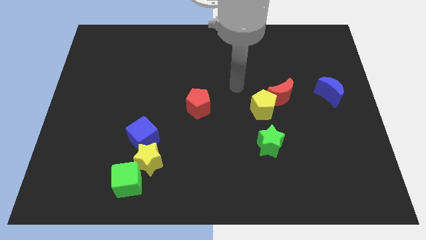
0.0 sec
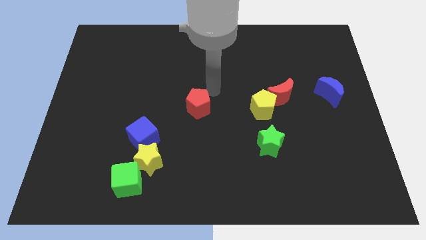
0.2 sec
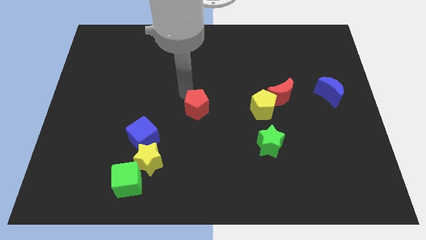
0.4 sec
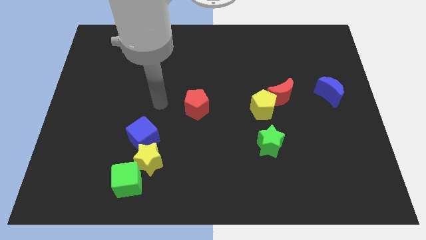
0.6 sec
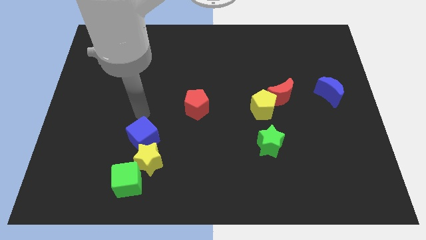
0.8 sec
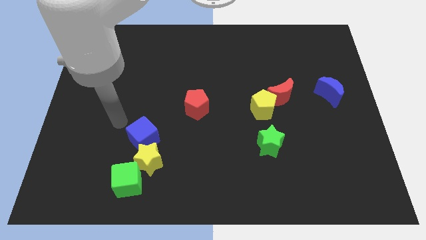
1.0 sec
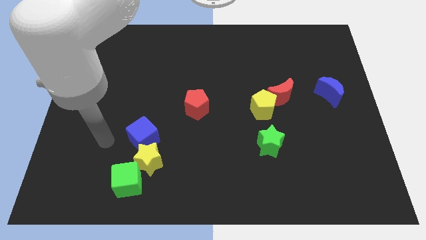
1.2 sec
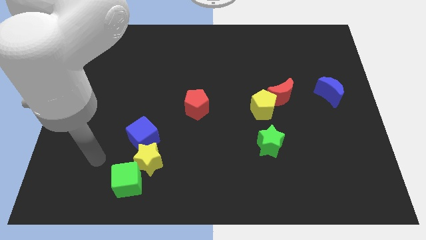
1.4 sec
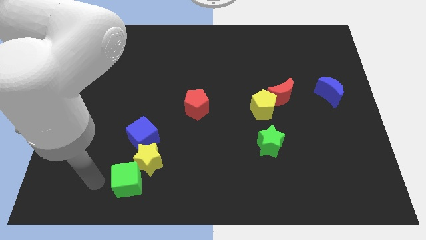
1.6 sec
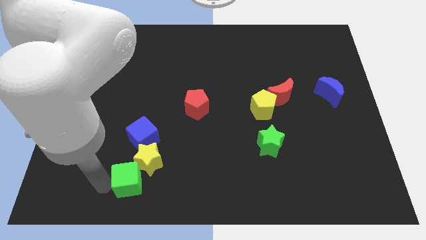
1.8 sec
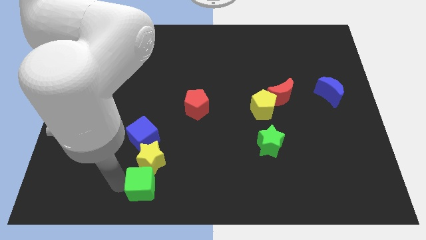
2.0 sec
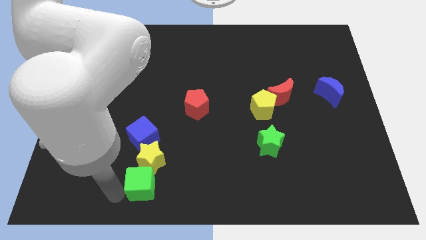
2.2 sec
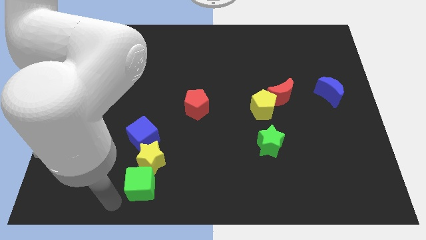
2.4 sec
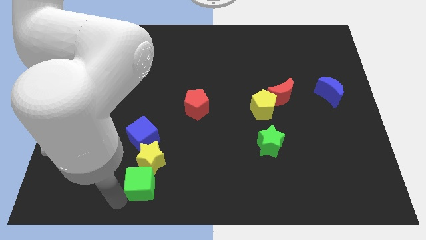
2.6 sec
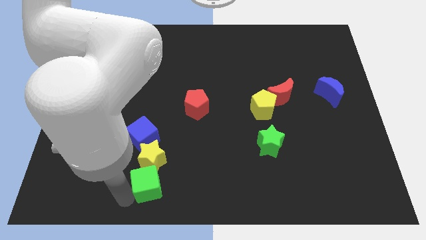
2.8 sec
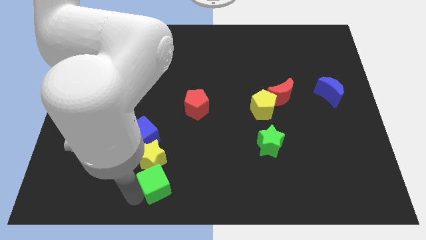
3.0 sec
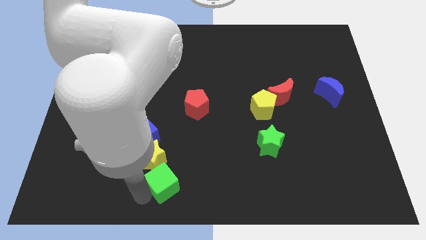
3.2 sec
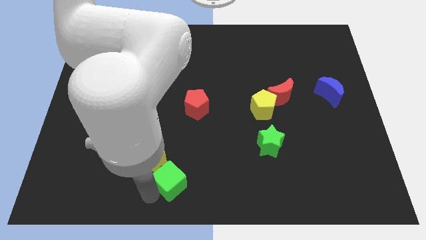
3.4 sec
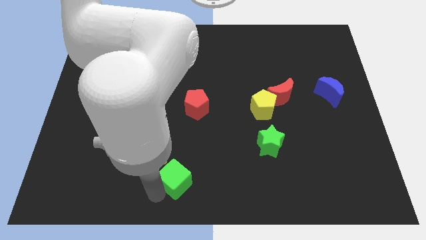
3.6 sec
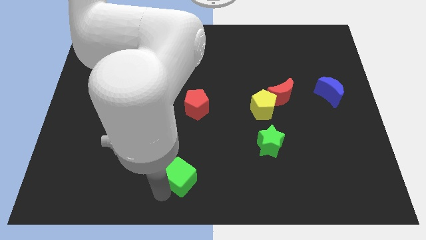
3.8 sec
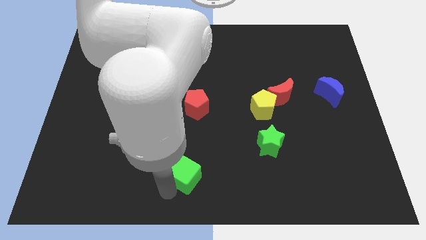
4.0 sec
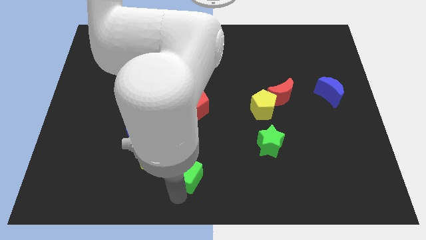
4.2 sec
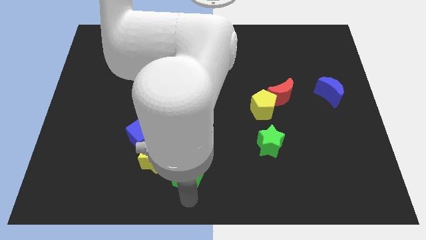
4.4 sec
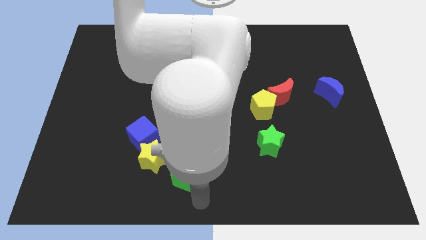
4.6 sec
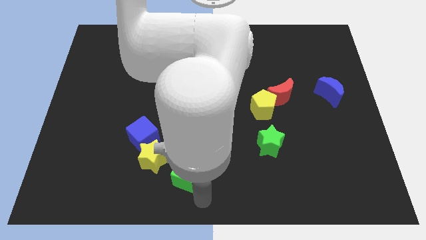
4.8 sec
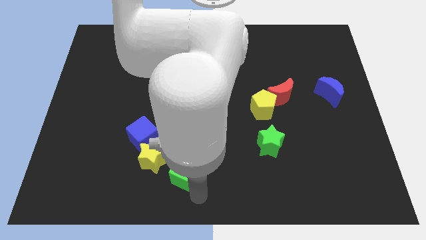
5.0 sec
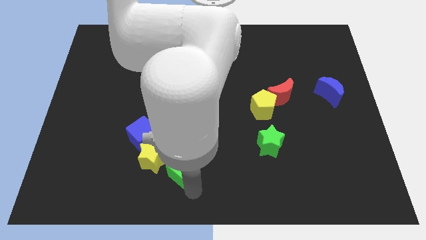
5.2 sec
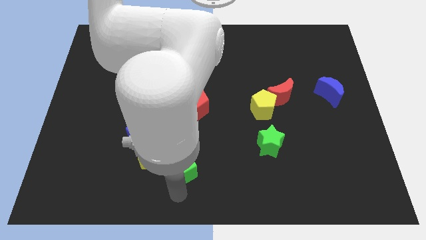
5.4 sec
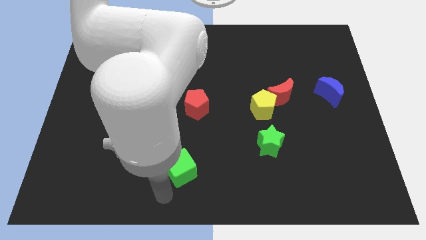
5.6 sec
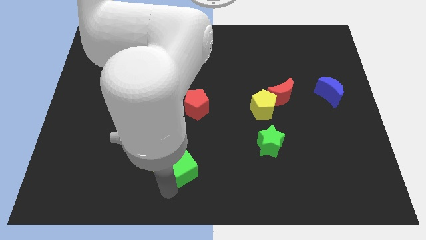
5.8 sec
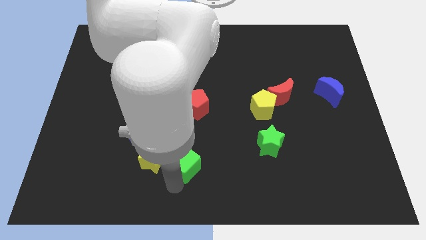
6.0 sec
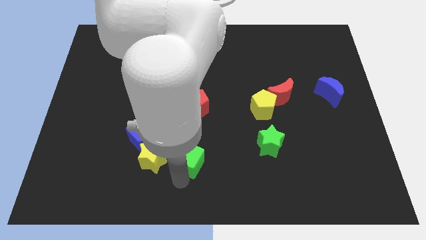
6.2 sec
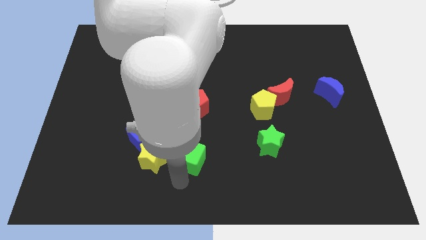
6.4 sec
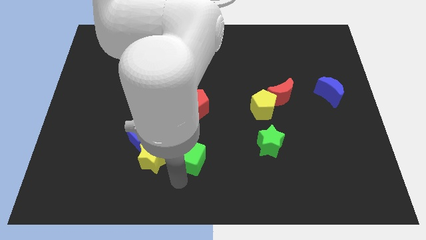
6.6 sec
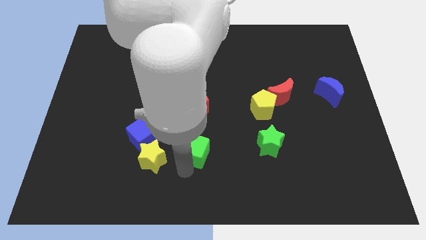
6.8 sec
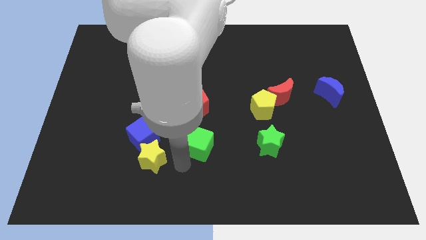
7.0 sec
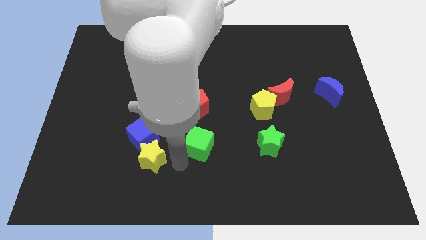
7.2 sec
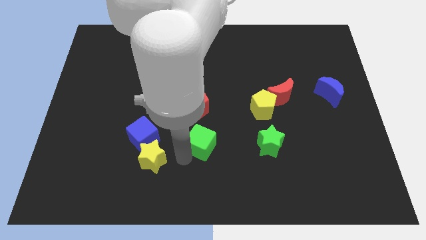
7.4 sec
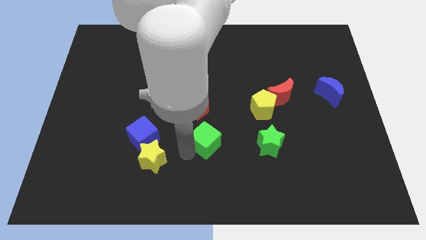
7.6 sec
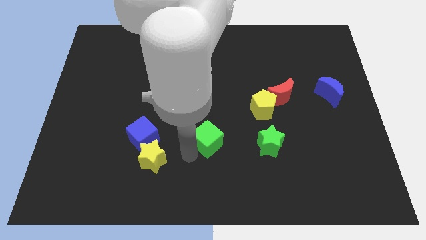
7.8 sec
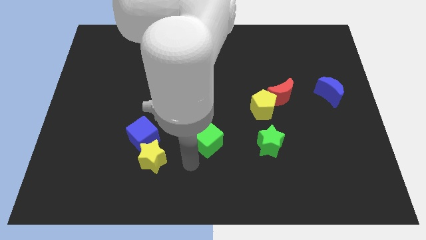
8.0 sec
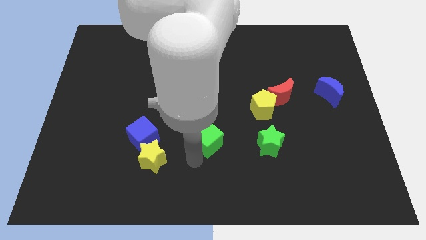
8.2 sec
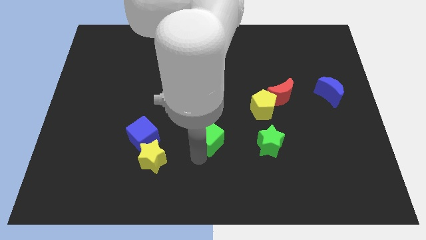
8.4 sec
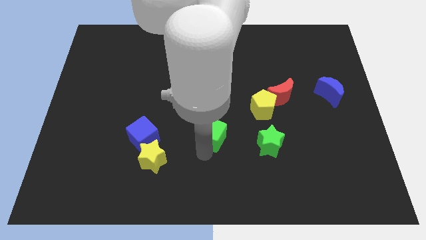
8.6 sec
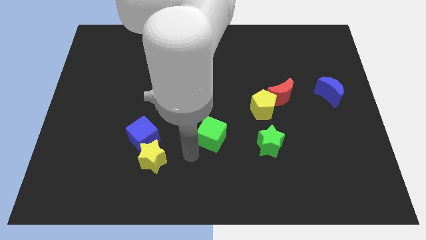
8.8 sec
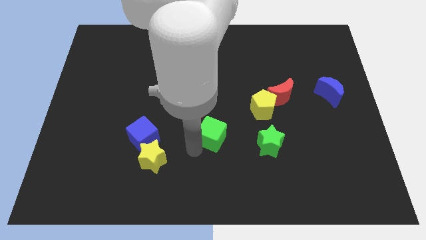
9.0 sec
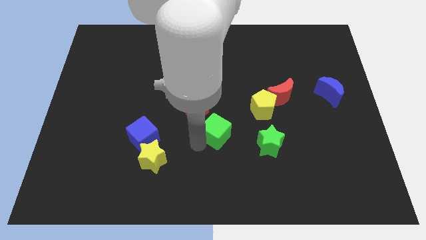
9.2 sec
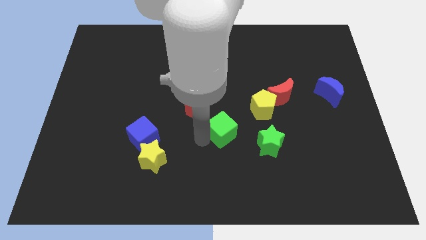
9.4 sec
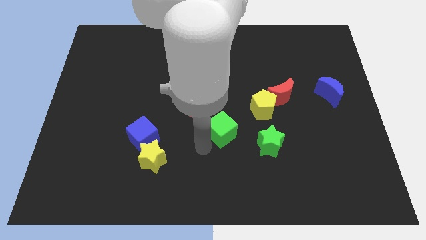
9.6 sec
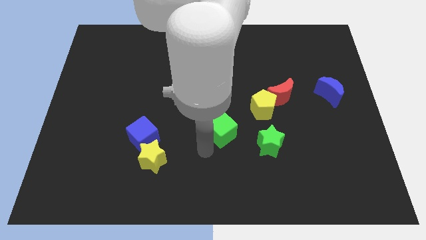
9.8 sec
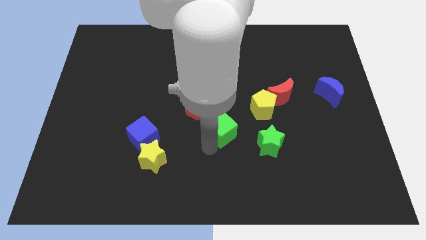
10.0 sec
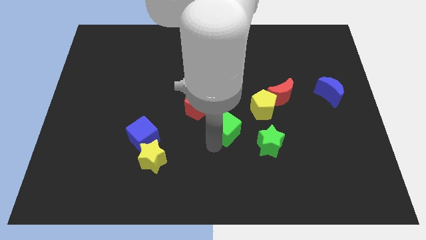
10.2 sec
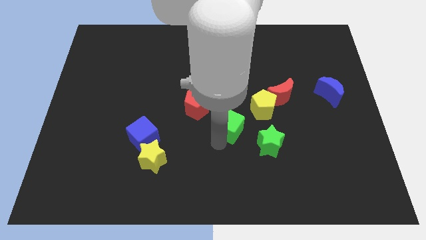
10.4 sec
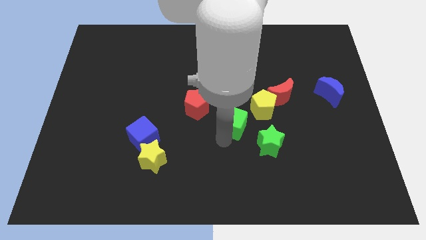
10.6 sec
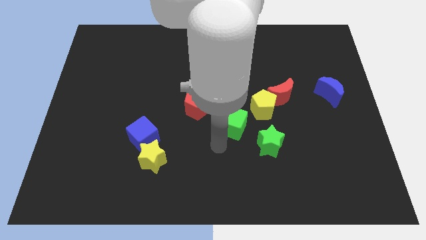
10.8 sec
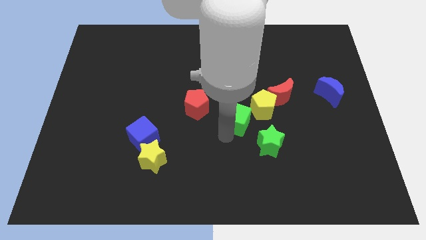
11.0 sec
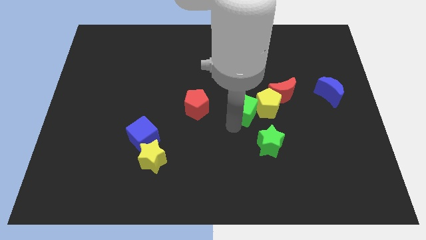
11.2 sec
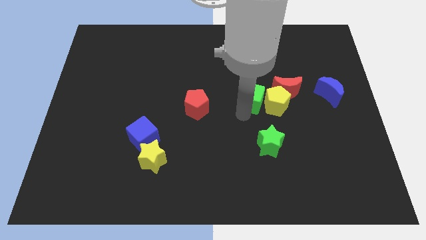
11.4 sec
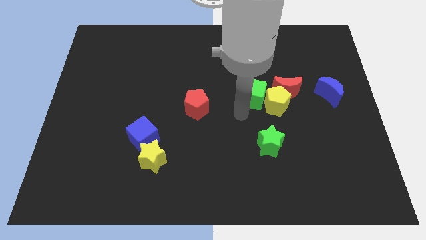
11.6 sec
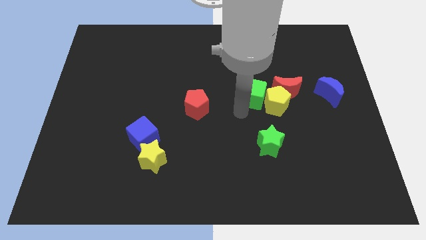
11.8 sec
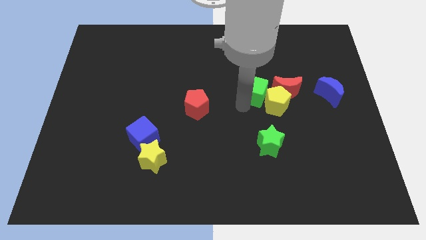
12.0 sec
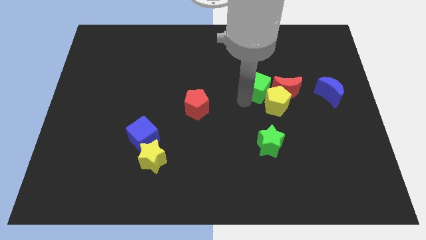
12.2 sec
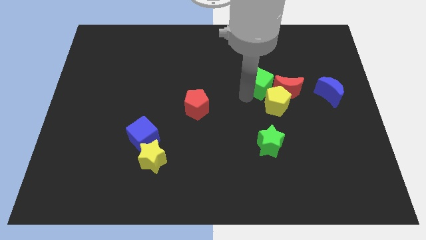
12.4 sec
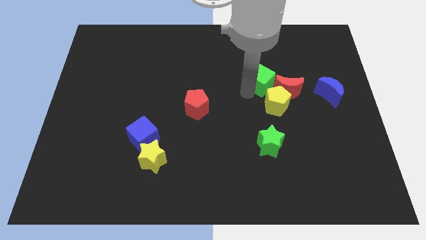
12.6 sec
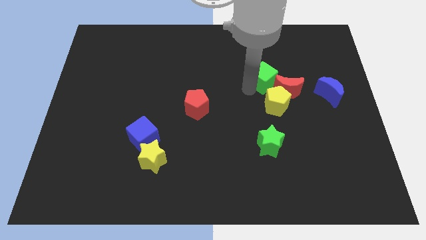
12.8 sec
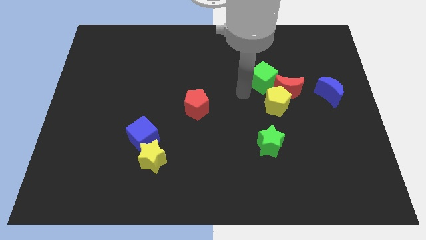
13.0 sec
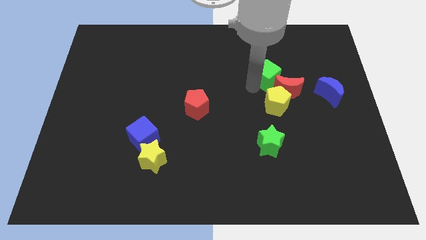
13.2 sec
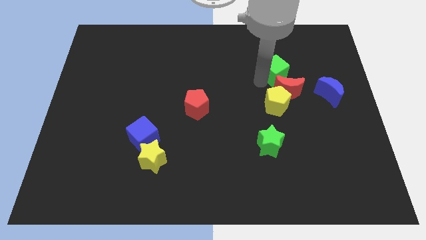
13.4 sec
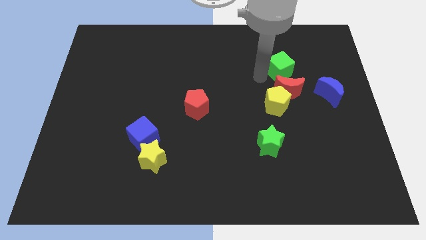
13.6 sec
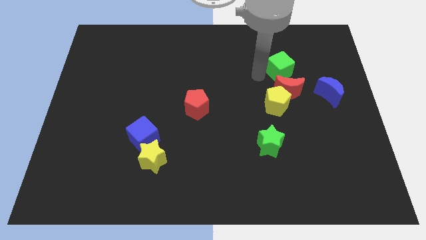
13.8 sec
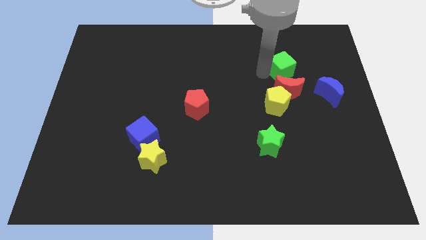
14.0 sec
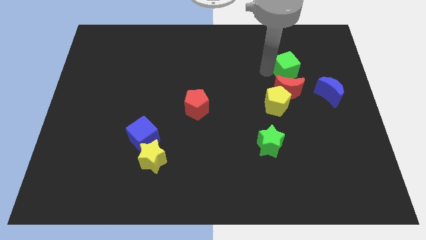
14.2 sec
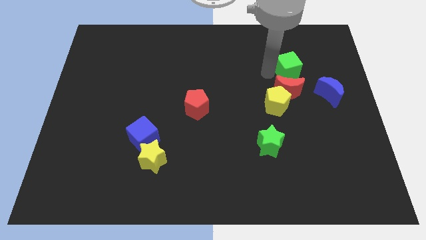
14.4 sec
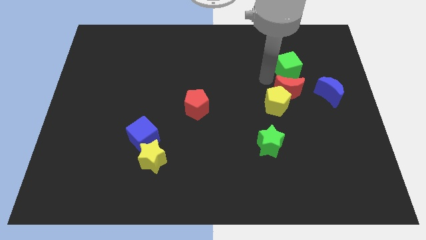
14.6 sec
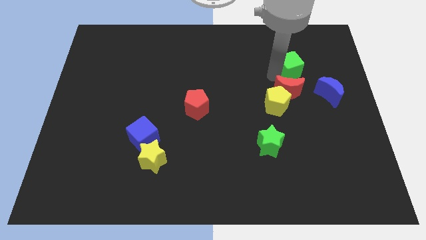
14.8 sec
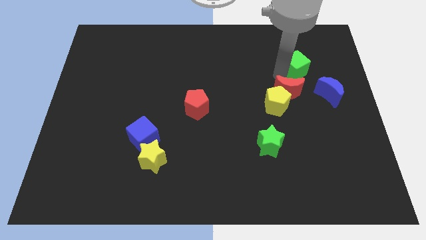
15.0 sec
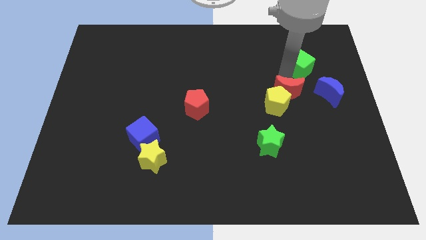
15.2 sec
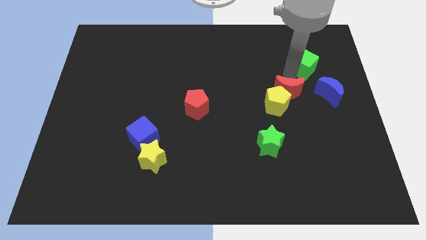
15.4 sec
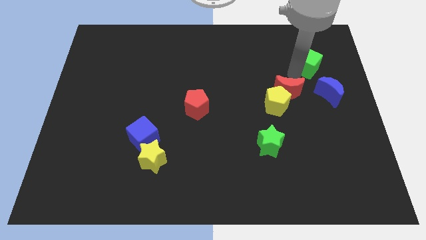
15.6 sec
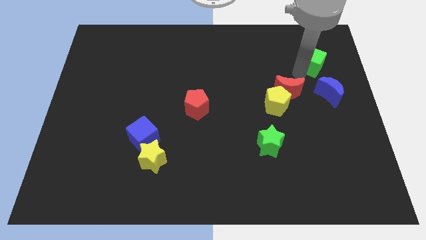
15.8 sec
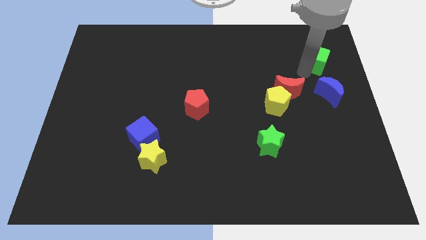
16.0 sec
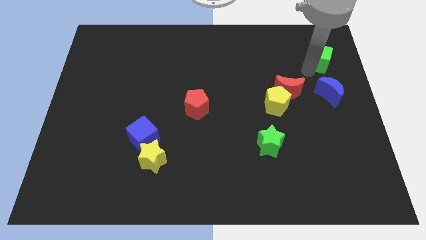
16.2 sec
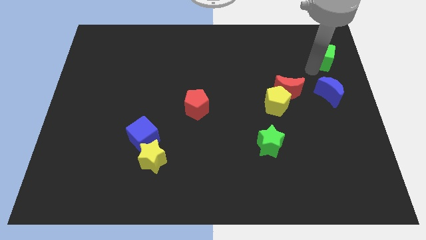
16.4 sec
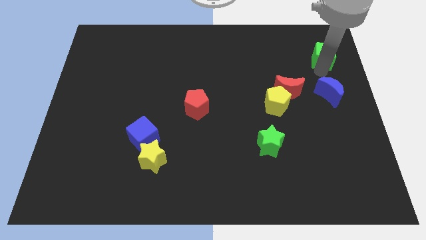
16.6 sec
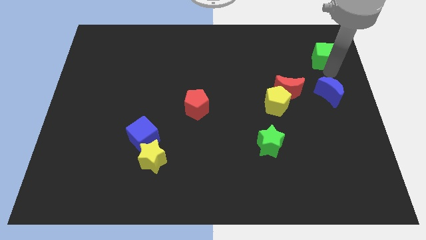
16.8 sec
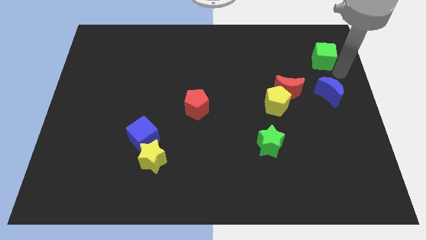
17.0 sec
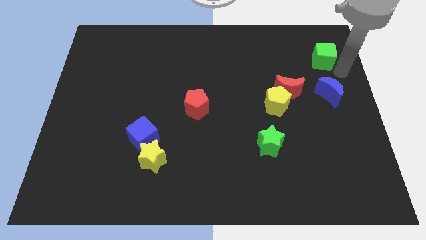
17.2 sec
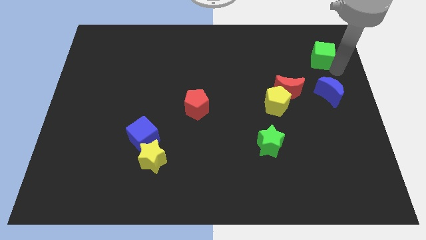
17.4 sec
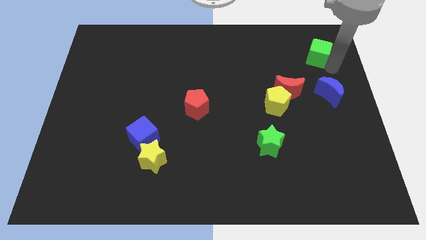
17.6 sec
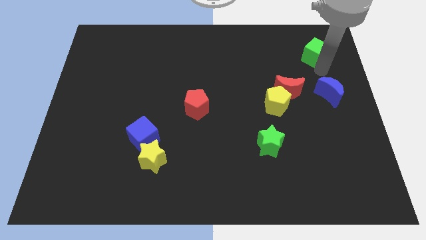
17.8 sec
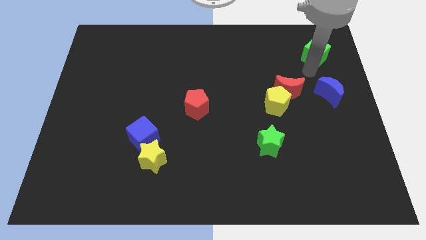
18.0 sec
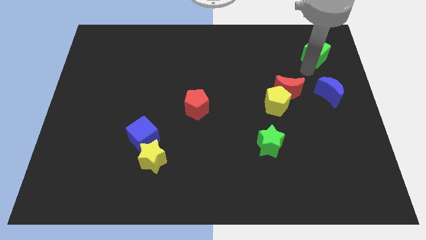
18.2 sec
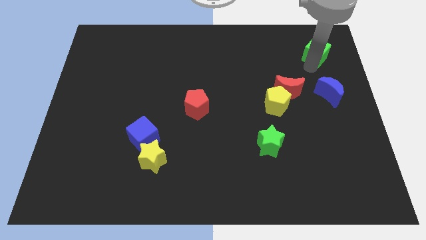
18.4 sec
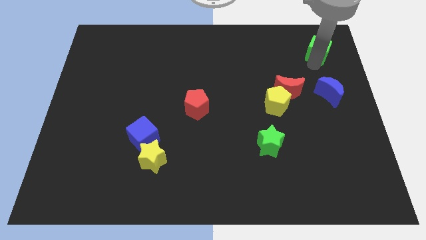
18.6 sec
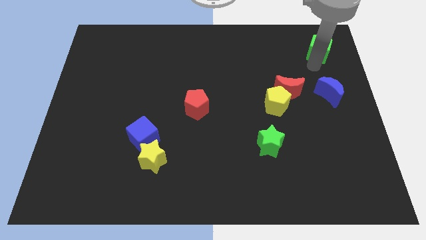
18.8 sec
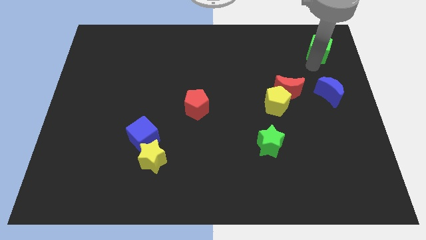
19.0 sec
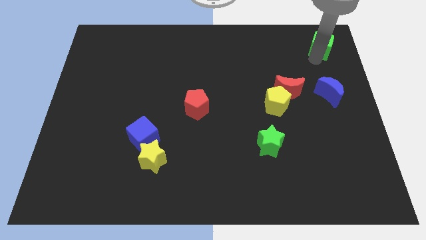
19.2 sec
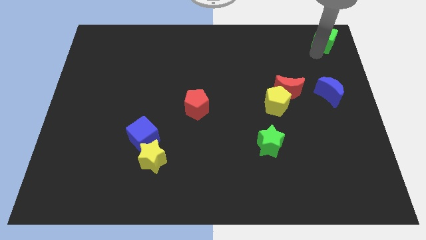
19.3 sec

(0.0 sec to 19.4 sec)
slide the green cube to the top right of the board
